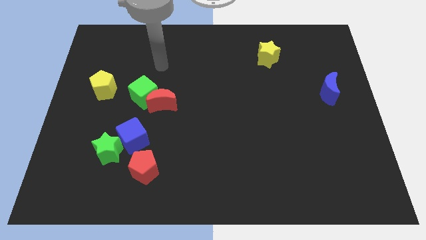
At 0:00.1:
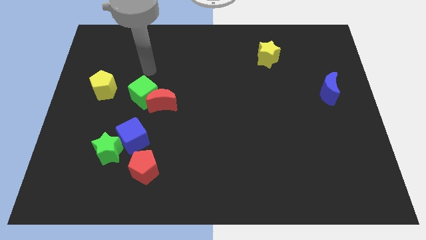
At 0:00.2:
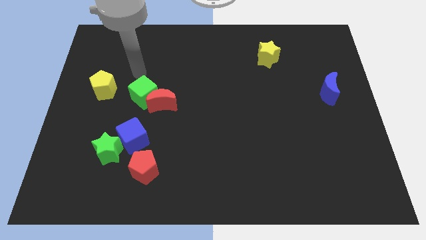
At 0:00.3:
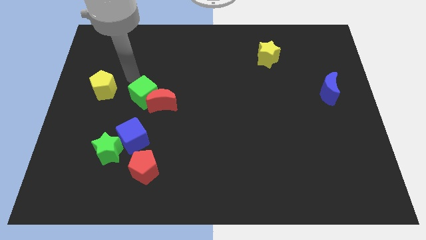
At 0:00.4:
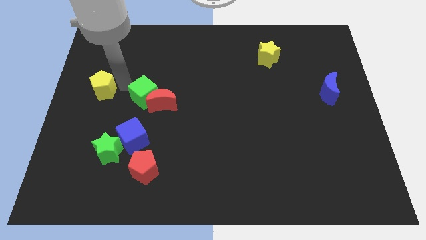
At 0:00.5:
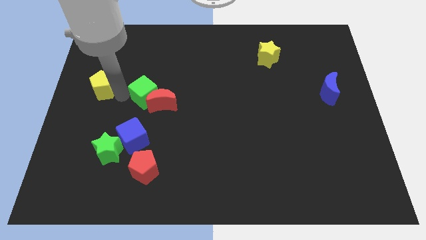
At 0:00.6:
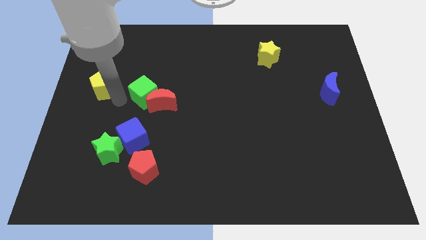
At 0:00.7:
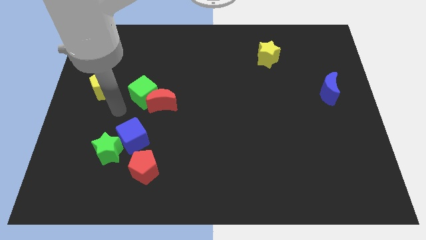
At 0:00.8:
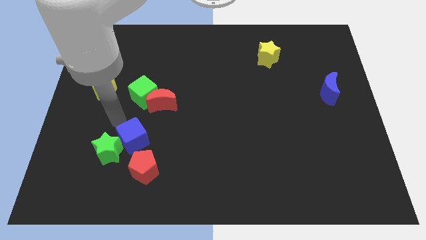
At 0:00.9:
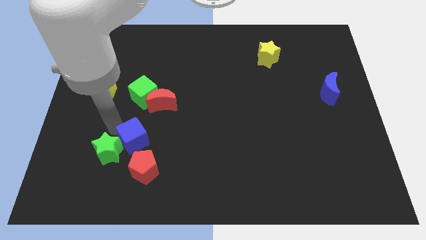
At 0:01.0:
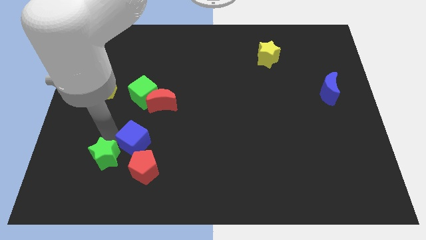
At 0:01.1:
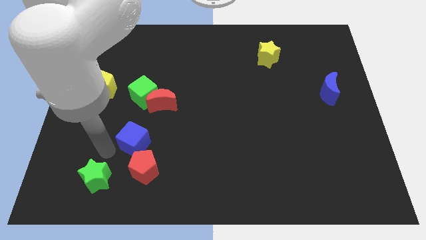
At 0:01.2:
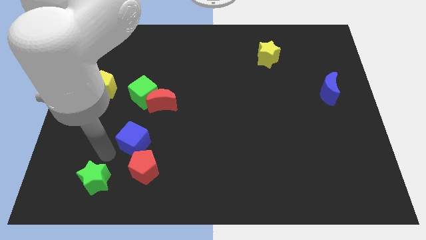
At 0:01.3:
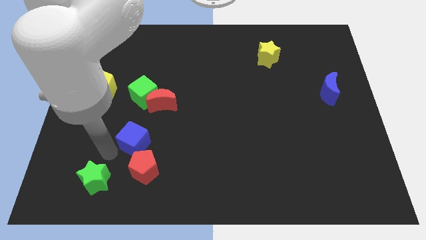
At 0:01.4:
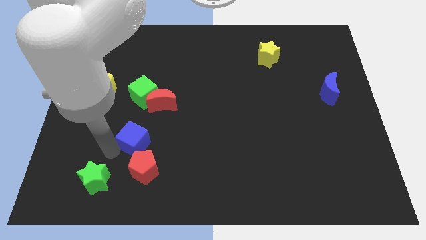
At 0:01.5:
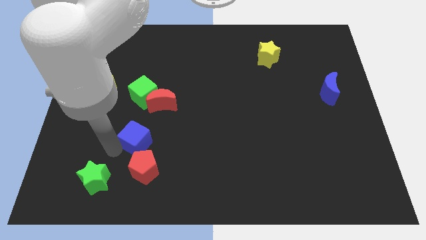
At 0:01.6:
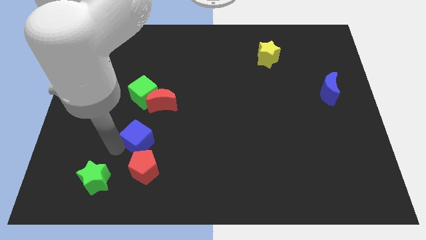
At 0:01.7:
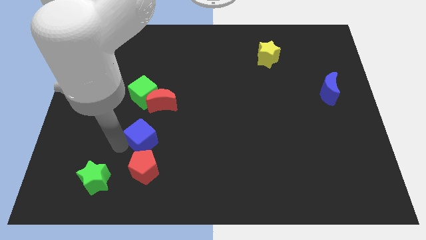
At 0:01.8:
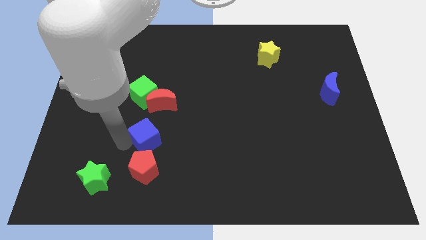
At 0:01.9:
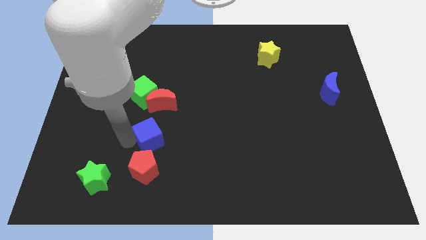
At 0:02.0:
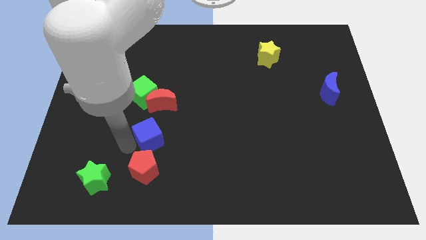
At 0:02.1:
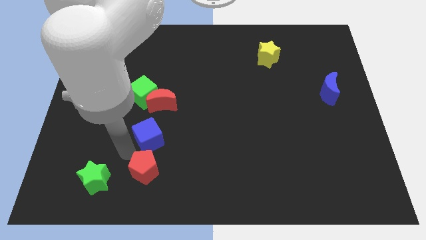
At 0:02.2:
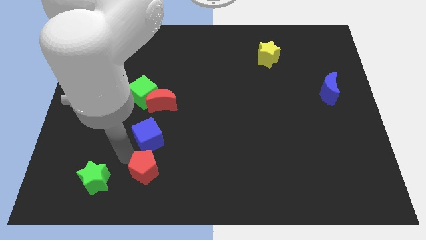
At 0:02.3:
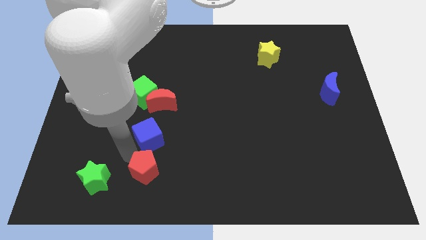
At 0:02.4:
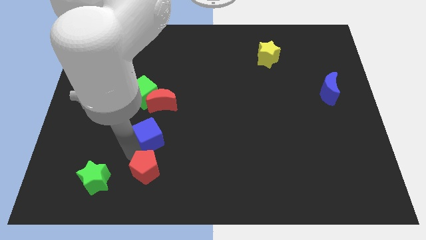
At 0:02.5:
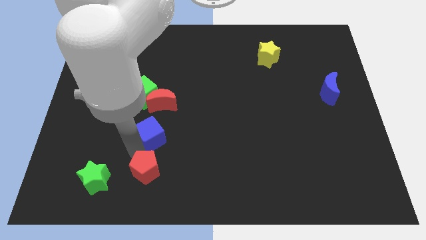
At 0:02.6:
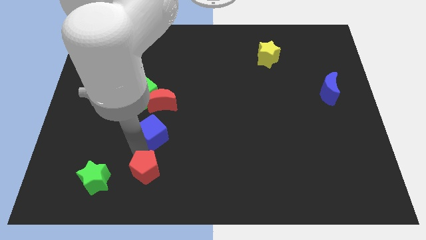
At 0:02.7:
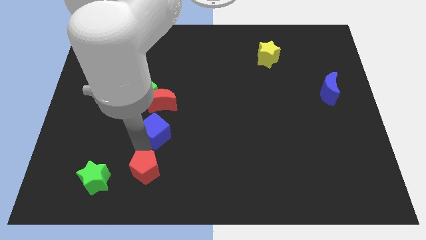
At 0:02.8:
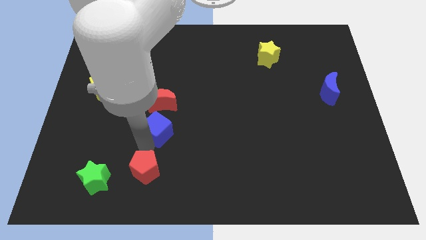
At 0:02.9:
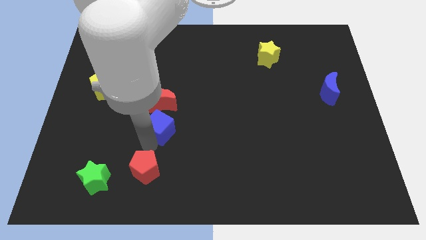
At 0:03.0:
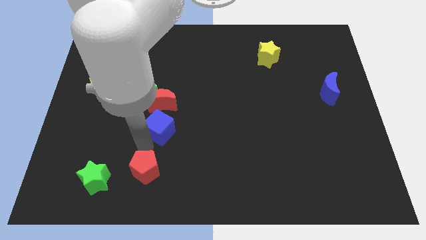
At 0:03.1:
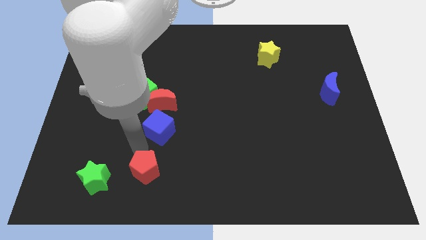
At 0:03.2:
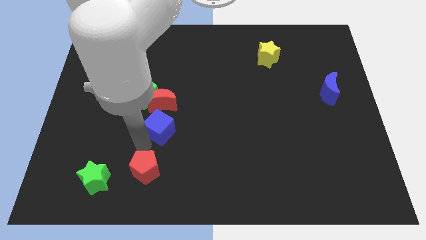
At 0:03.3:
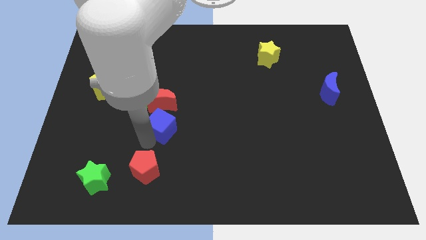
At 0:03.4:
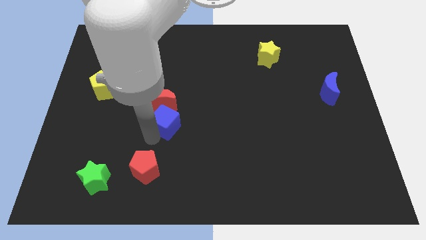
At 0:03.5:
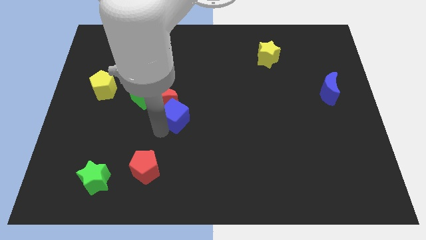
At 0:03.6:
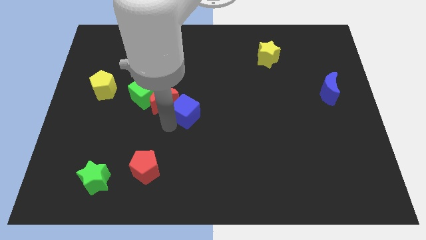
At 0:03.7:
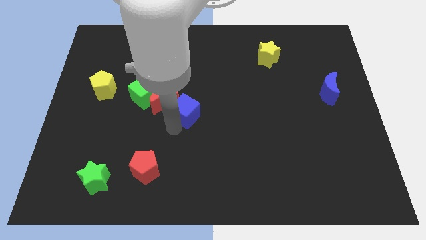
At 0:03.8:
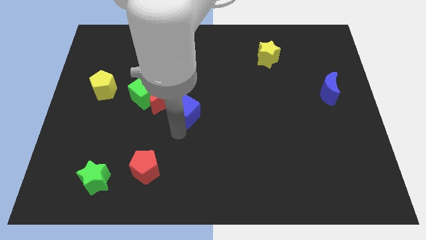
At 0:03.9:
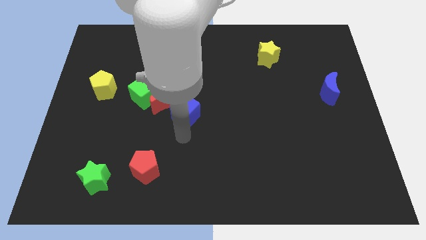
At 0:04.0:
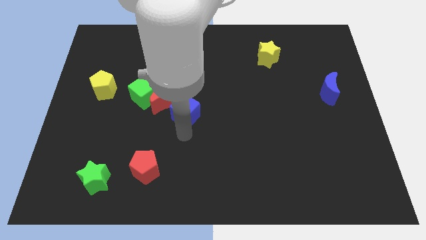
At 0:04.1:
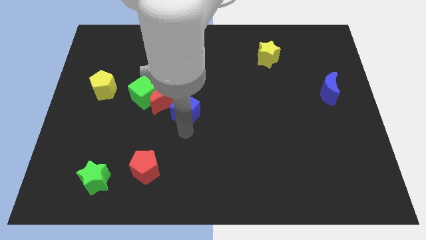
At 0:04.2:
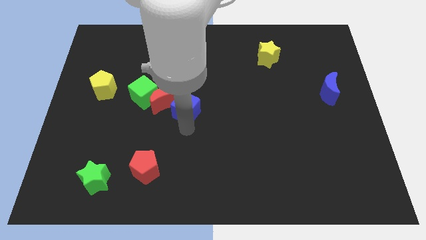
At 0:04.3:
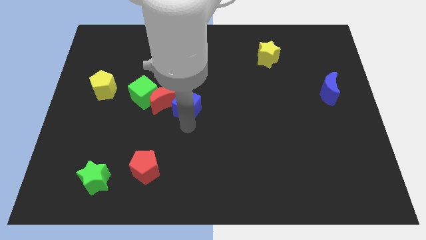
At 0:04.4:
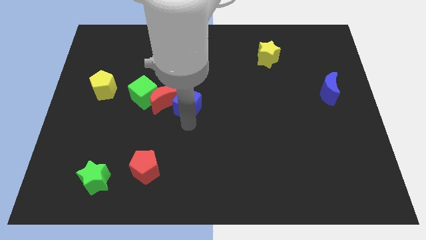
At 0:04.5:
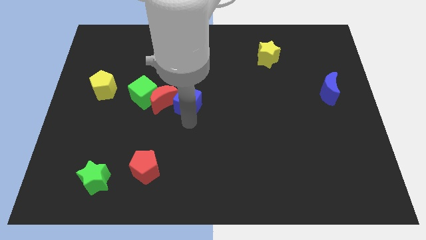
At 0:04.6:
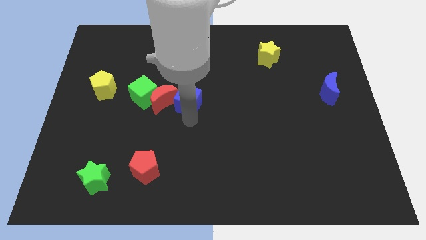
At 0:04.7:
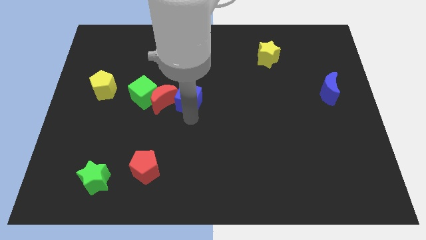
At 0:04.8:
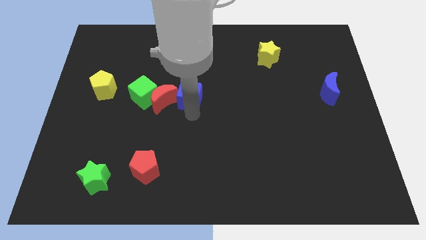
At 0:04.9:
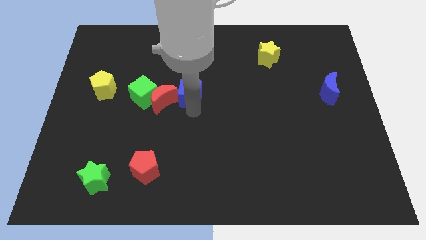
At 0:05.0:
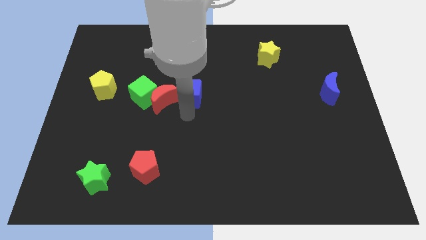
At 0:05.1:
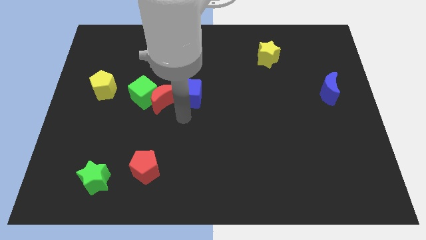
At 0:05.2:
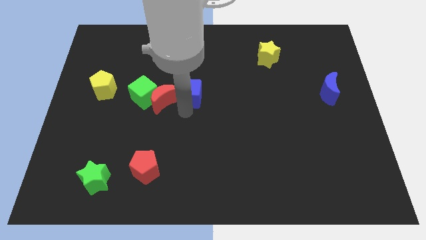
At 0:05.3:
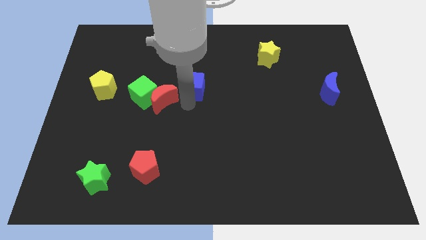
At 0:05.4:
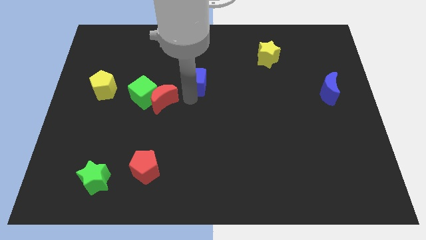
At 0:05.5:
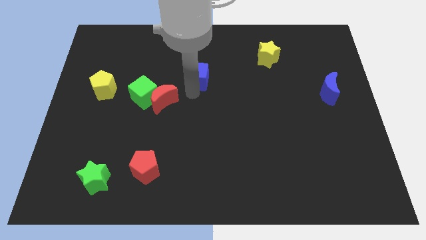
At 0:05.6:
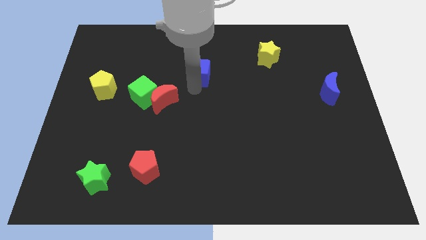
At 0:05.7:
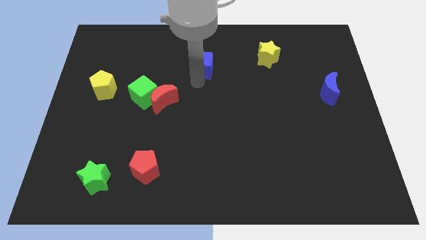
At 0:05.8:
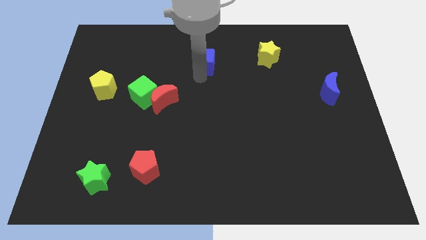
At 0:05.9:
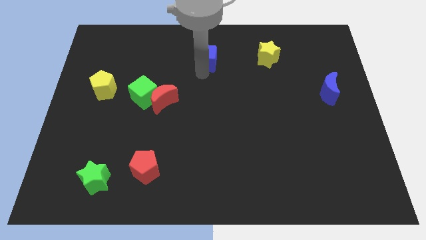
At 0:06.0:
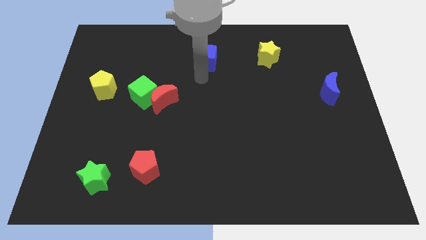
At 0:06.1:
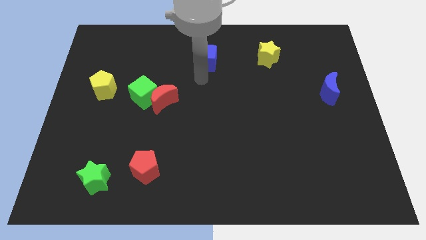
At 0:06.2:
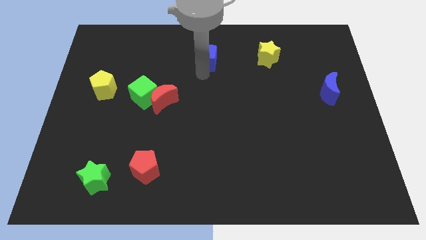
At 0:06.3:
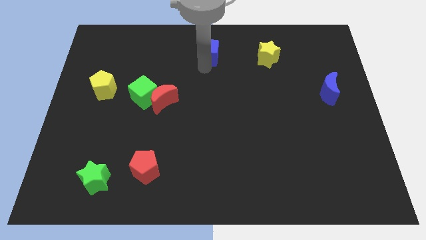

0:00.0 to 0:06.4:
move the blue cube to the top

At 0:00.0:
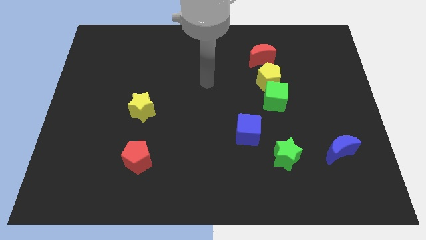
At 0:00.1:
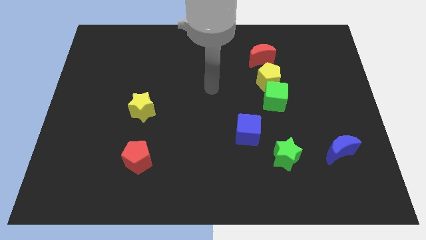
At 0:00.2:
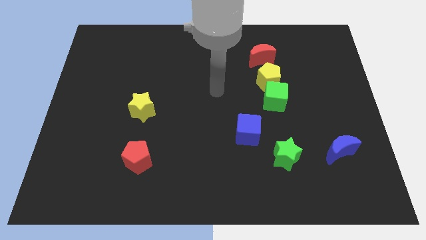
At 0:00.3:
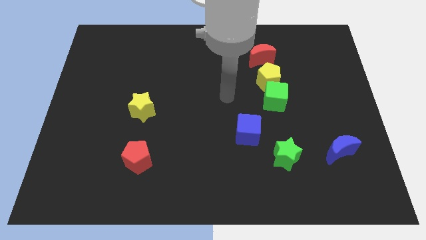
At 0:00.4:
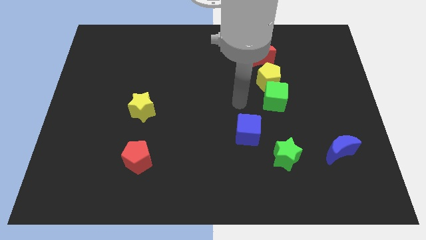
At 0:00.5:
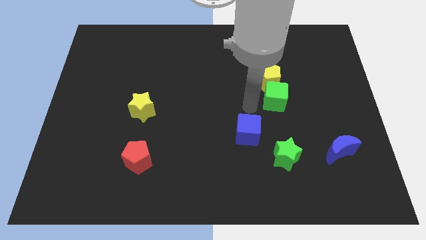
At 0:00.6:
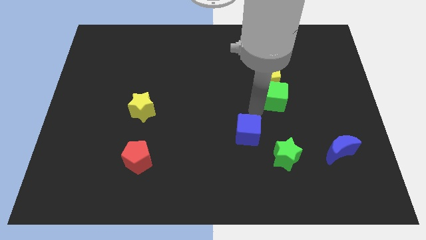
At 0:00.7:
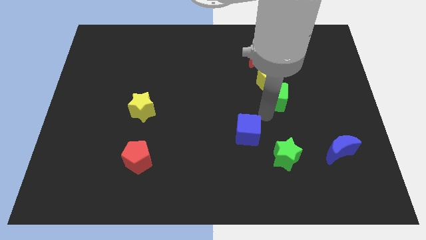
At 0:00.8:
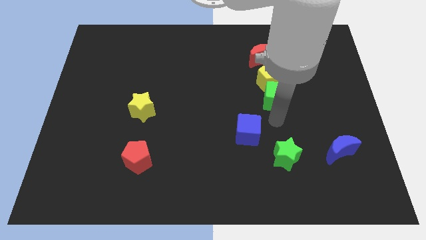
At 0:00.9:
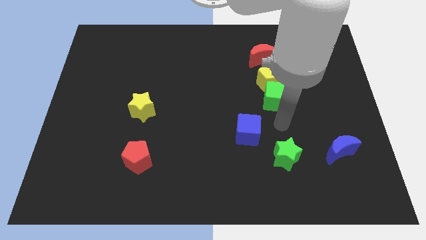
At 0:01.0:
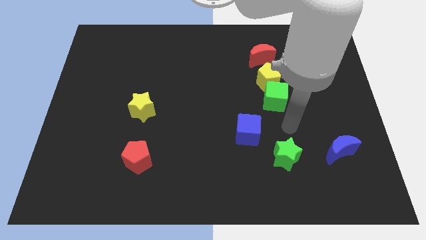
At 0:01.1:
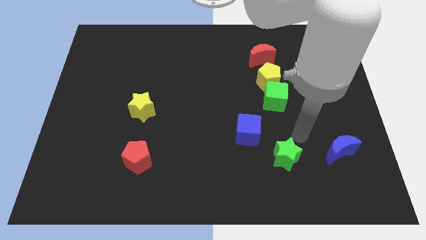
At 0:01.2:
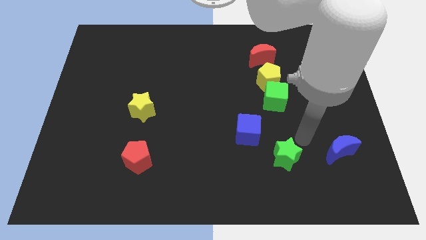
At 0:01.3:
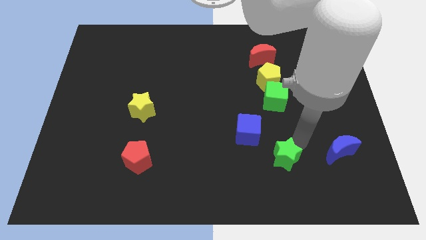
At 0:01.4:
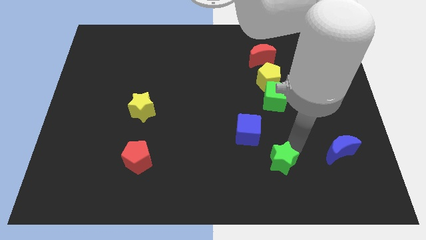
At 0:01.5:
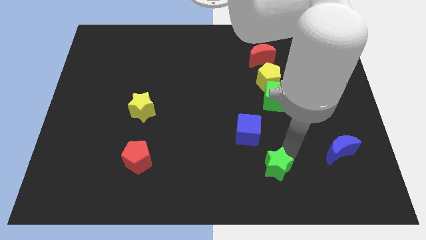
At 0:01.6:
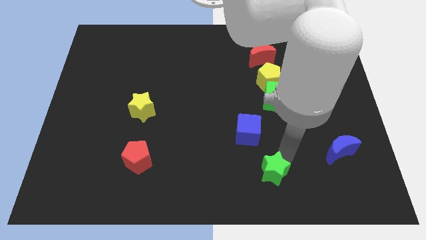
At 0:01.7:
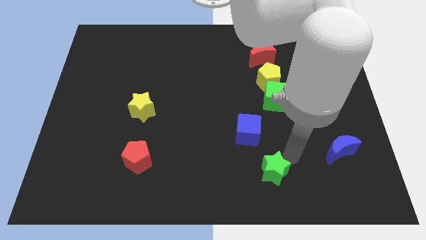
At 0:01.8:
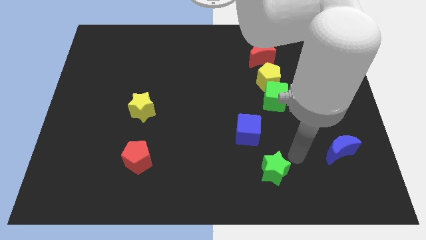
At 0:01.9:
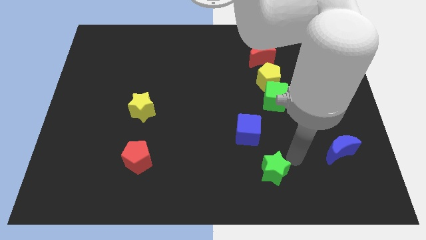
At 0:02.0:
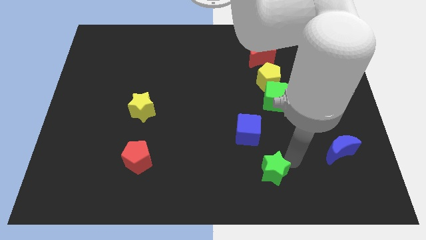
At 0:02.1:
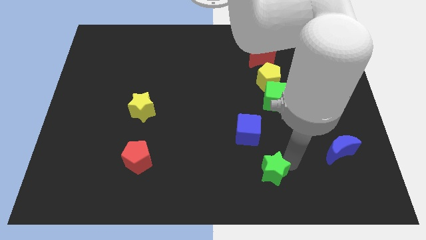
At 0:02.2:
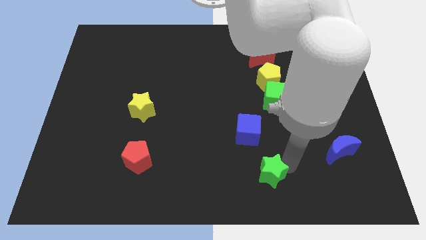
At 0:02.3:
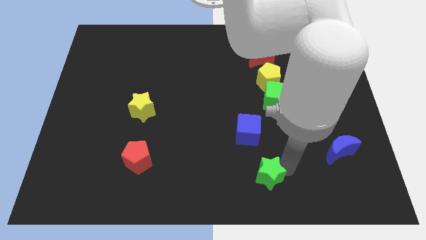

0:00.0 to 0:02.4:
put the green star to the bottom
